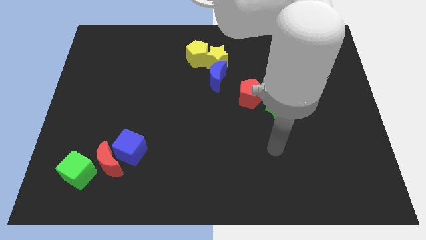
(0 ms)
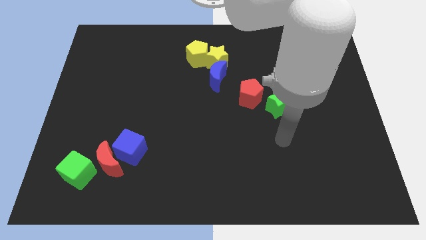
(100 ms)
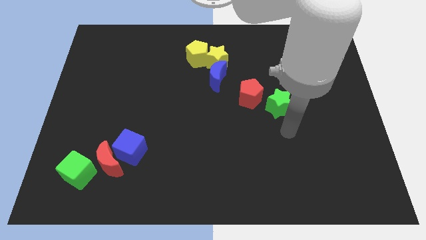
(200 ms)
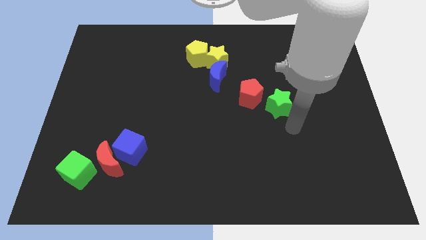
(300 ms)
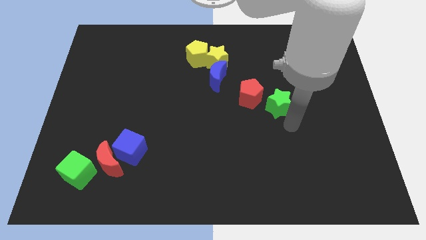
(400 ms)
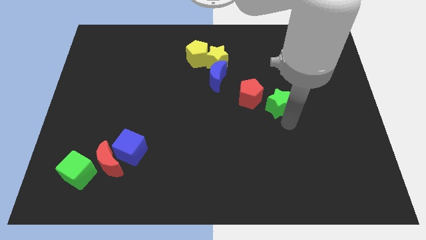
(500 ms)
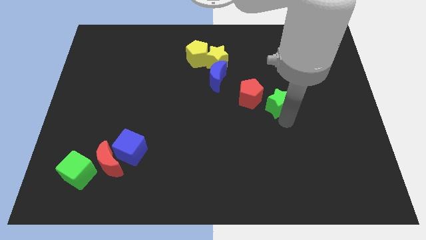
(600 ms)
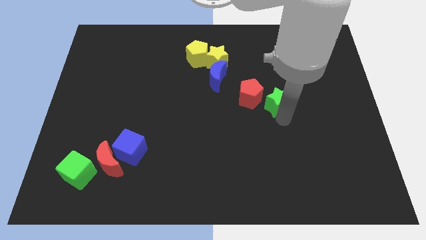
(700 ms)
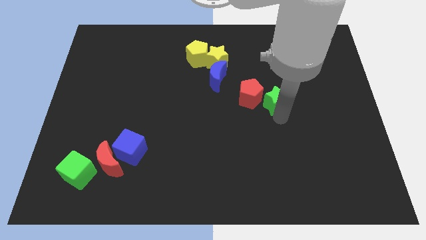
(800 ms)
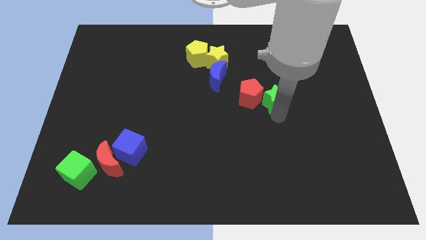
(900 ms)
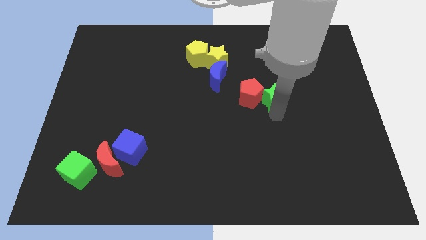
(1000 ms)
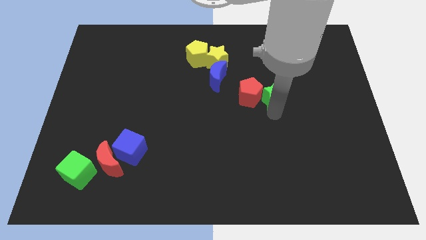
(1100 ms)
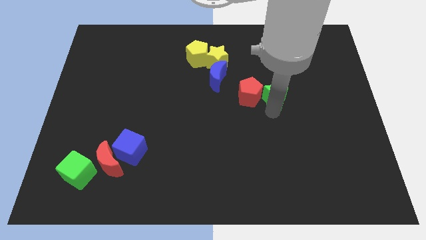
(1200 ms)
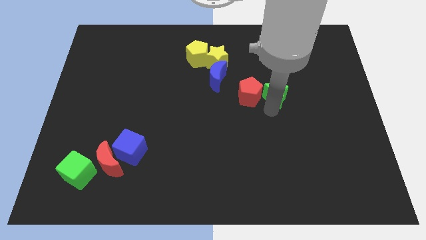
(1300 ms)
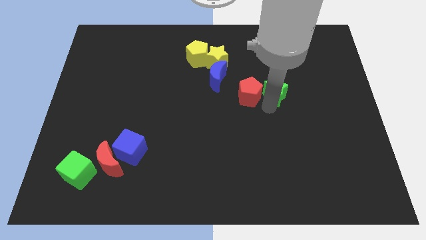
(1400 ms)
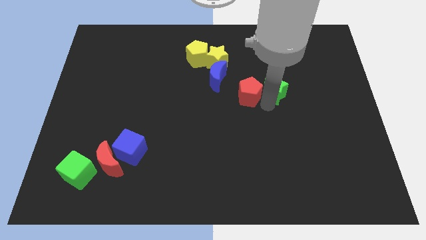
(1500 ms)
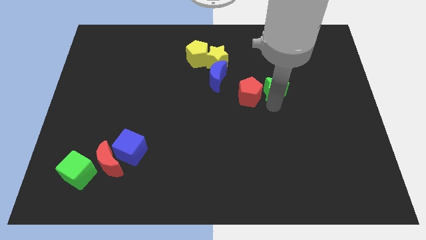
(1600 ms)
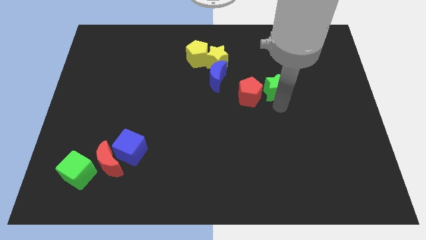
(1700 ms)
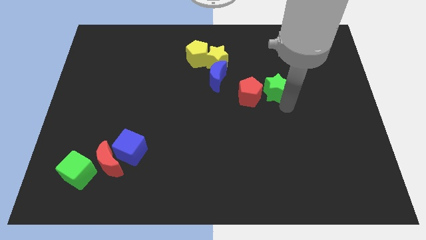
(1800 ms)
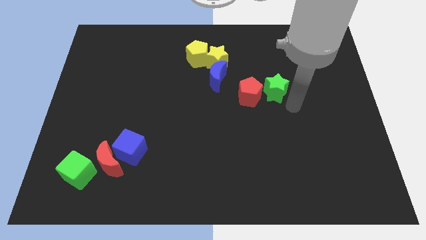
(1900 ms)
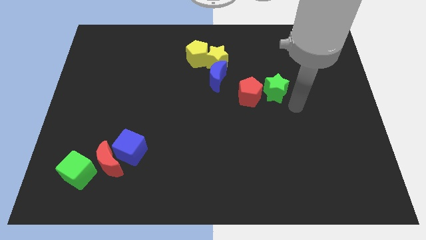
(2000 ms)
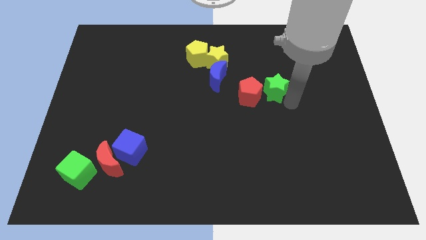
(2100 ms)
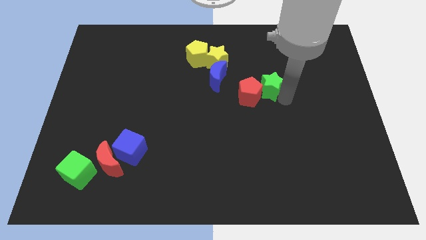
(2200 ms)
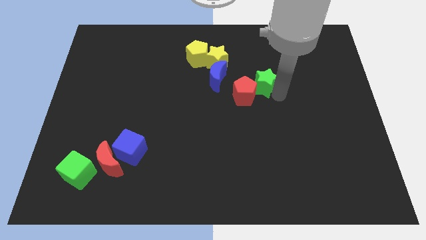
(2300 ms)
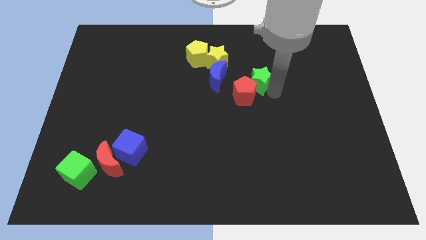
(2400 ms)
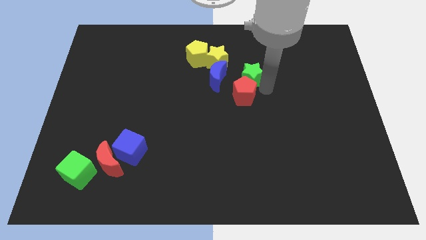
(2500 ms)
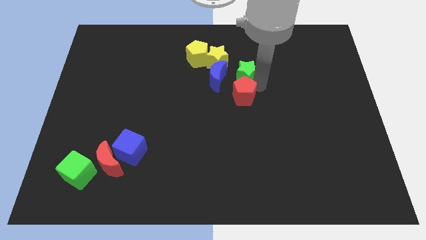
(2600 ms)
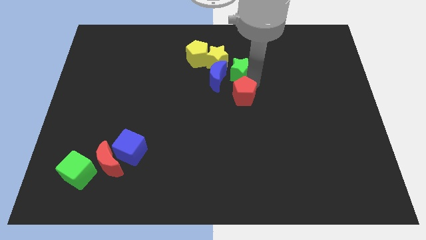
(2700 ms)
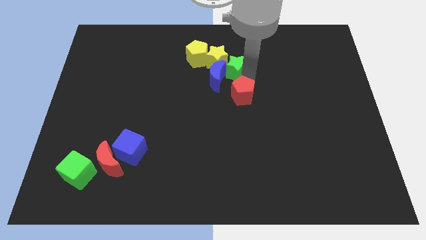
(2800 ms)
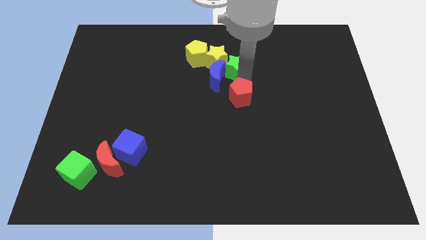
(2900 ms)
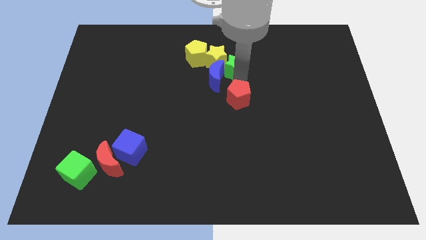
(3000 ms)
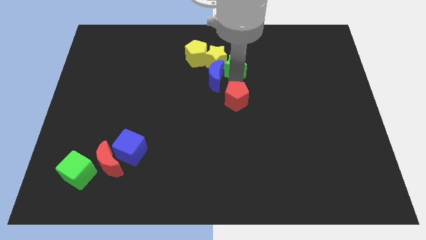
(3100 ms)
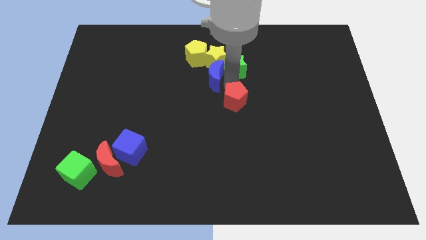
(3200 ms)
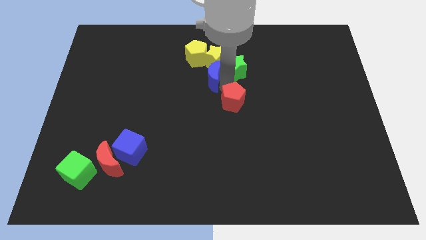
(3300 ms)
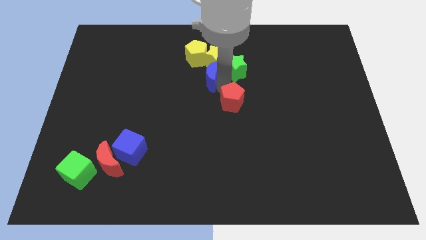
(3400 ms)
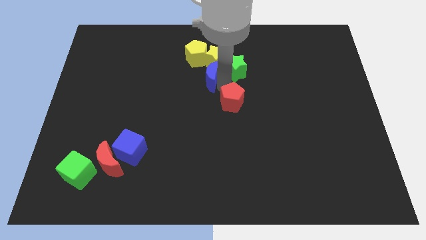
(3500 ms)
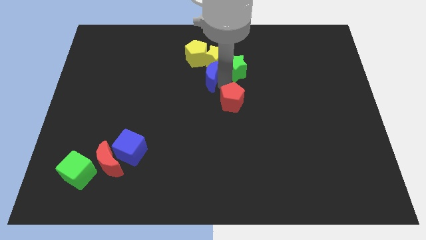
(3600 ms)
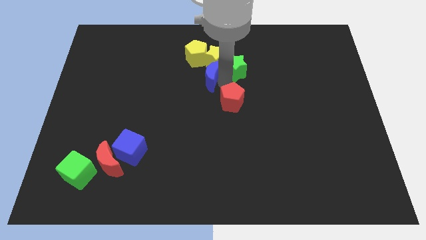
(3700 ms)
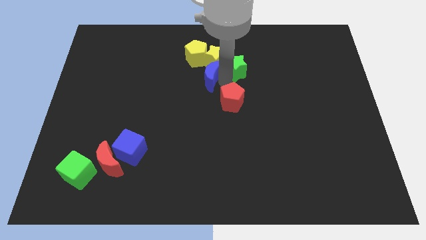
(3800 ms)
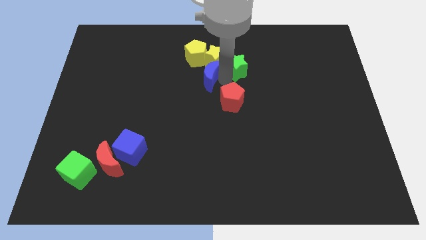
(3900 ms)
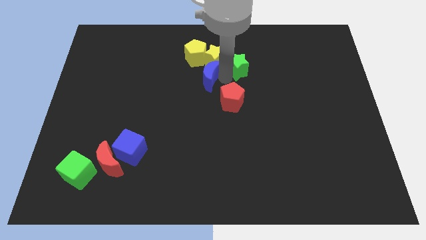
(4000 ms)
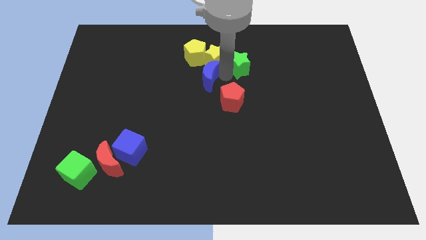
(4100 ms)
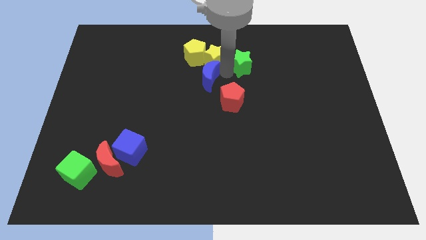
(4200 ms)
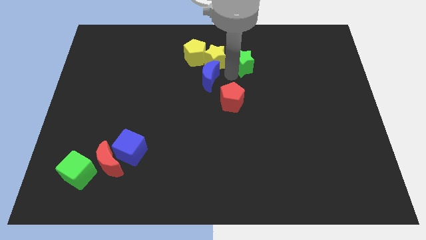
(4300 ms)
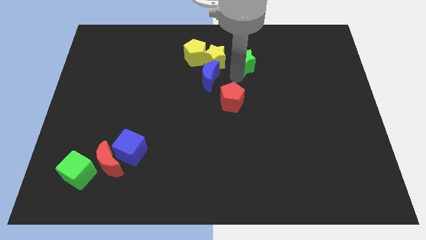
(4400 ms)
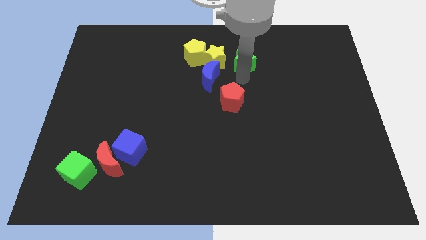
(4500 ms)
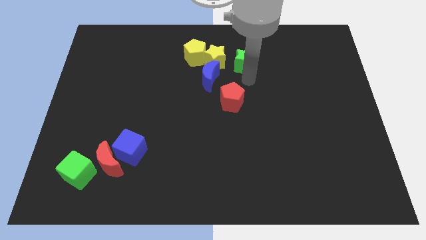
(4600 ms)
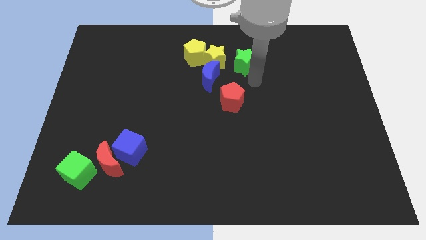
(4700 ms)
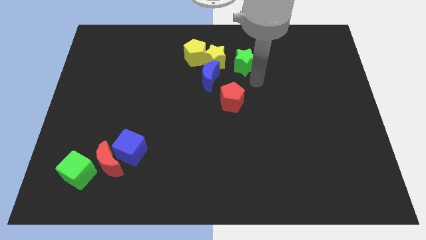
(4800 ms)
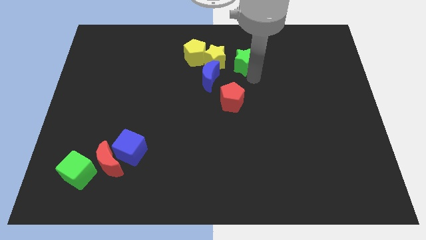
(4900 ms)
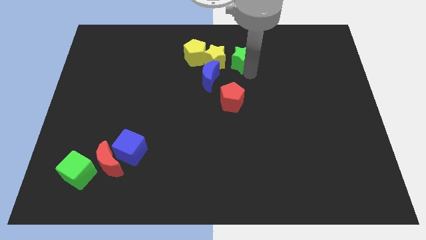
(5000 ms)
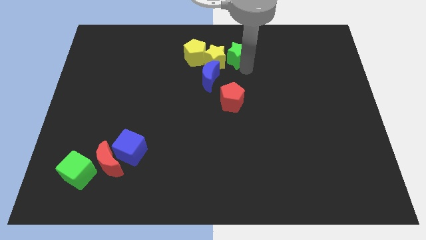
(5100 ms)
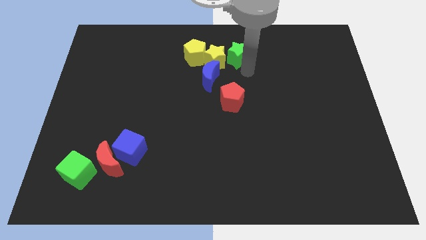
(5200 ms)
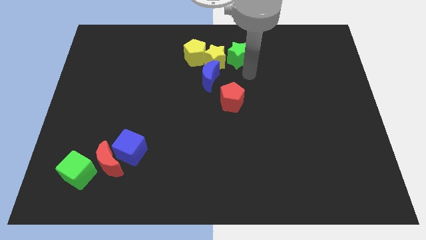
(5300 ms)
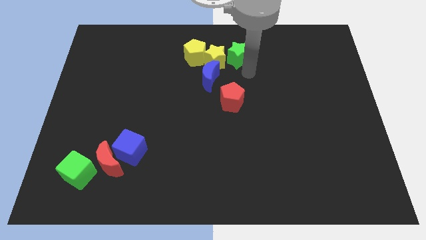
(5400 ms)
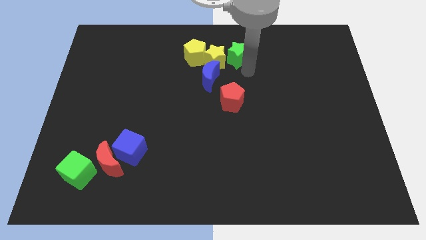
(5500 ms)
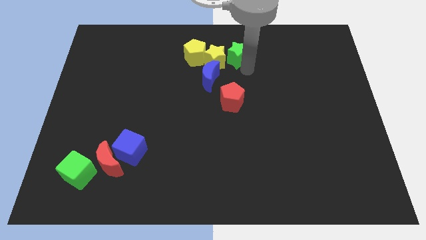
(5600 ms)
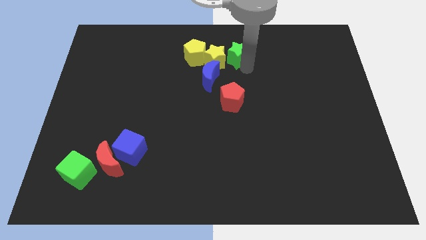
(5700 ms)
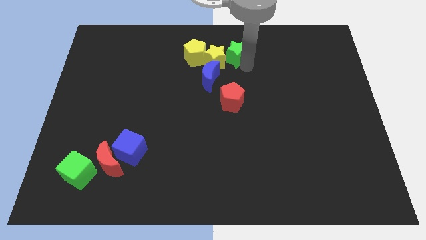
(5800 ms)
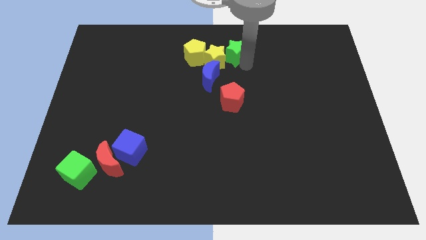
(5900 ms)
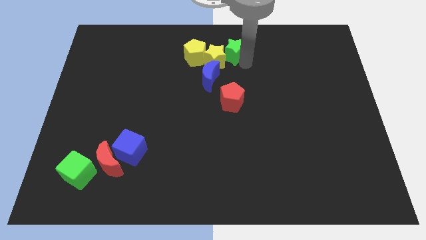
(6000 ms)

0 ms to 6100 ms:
push the green star to the top

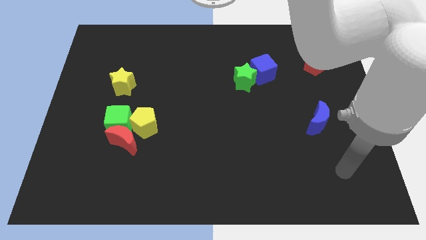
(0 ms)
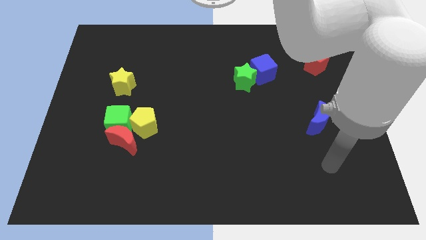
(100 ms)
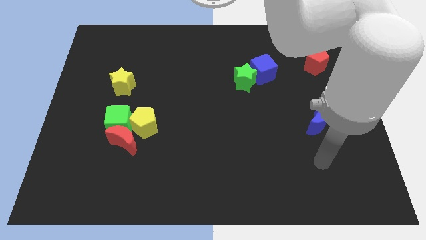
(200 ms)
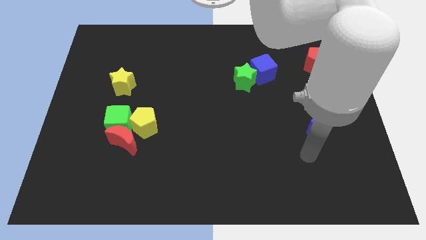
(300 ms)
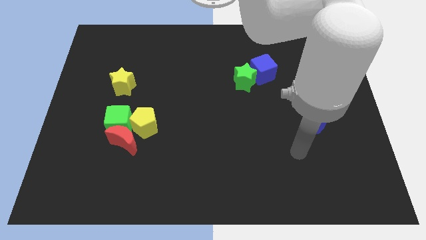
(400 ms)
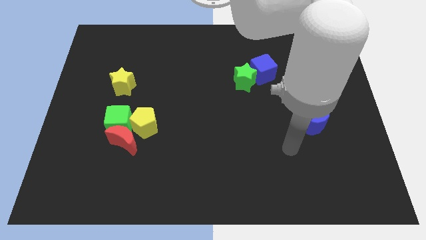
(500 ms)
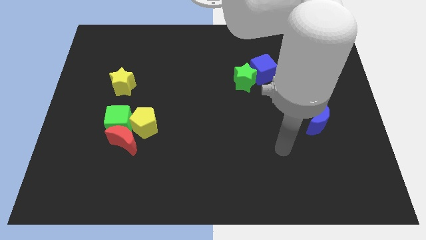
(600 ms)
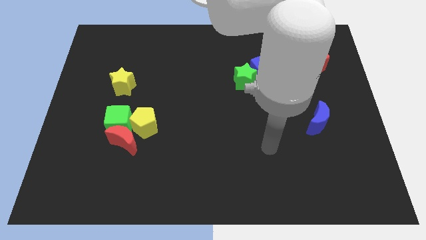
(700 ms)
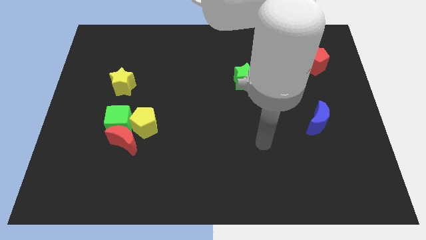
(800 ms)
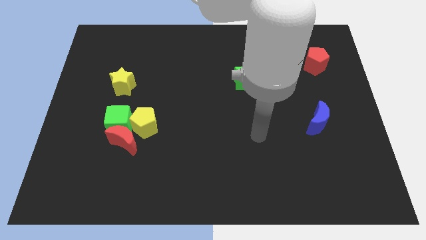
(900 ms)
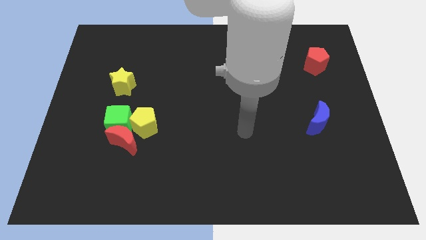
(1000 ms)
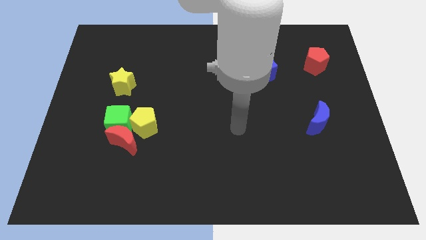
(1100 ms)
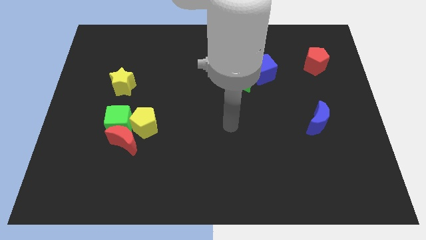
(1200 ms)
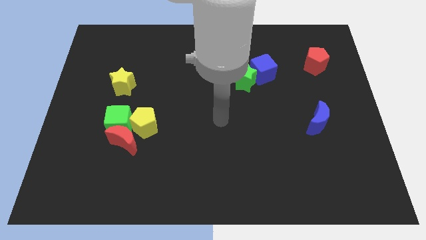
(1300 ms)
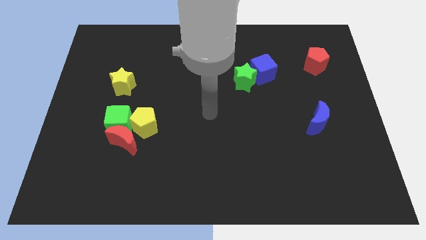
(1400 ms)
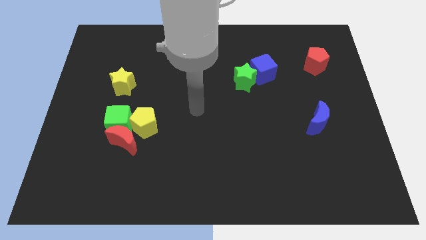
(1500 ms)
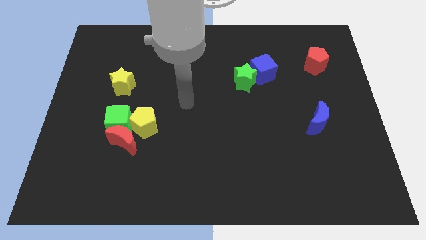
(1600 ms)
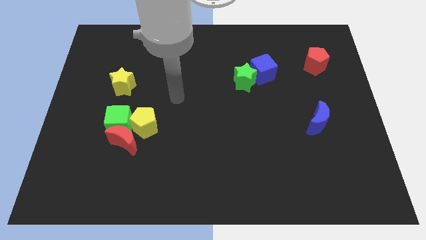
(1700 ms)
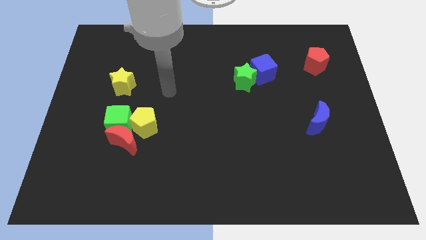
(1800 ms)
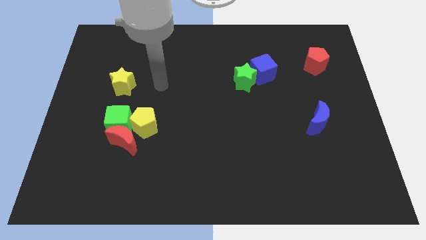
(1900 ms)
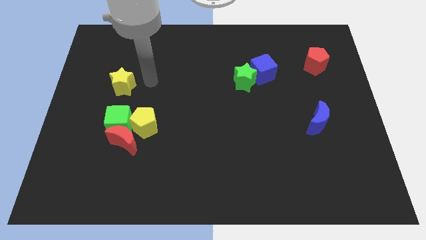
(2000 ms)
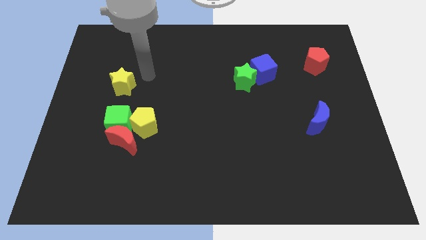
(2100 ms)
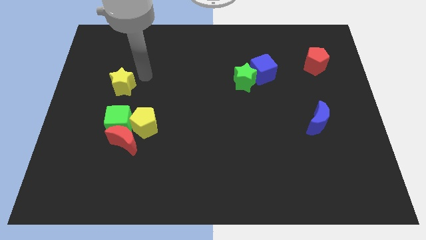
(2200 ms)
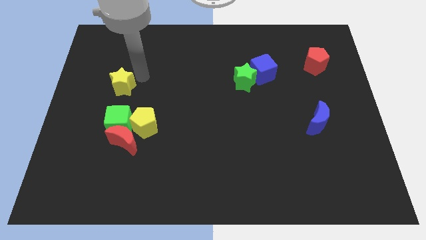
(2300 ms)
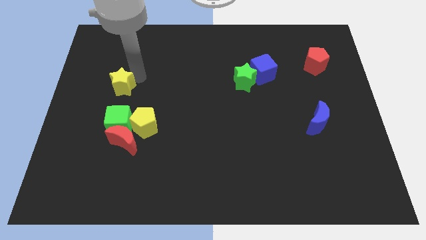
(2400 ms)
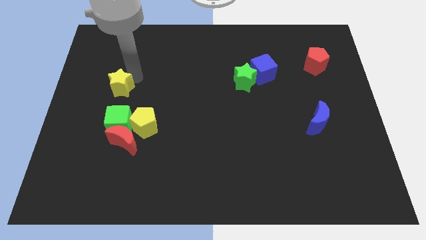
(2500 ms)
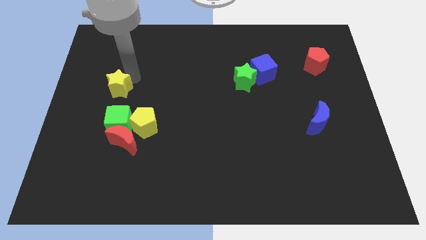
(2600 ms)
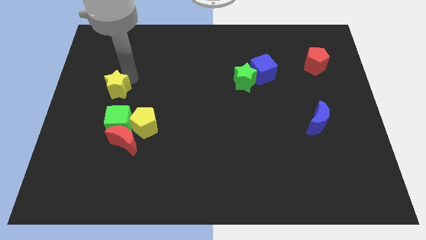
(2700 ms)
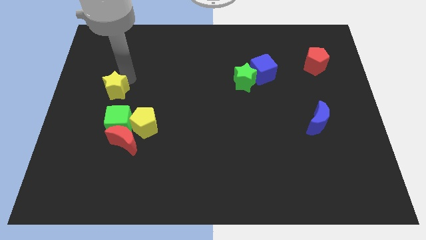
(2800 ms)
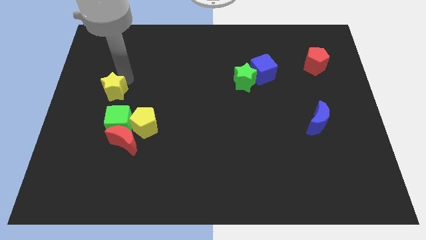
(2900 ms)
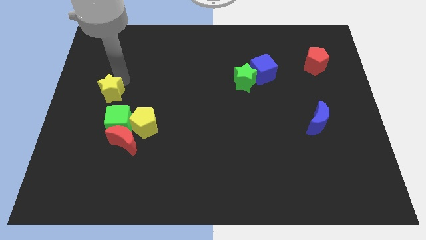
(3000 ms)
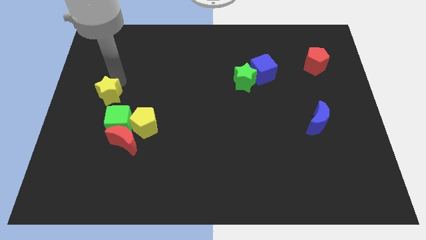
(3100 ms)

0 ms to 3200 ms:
move the yellow star to the left side
